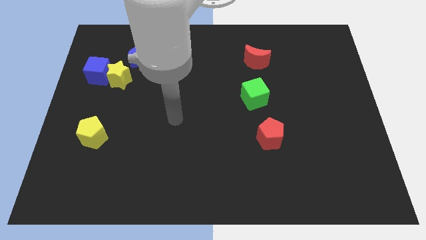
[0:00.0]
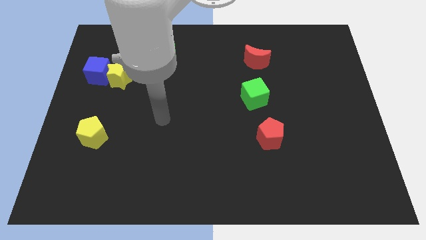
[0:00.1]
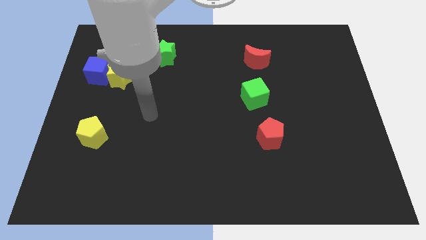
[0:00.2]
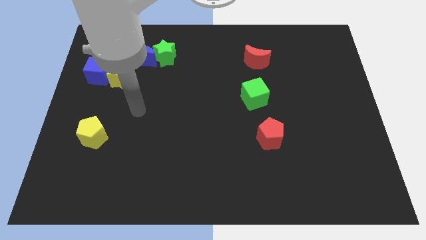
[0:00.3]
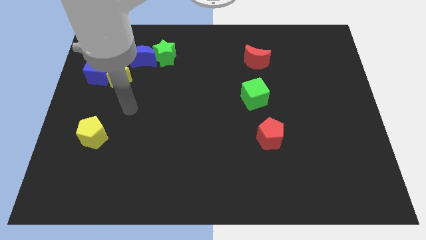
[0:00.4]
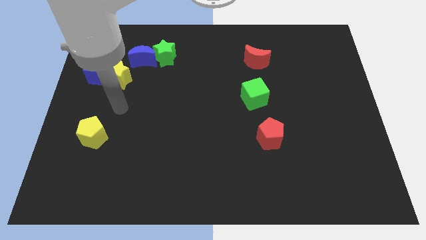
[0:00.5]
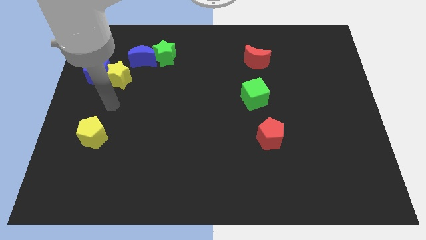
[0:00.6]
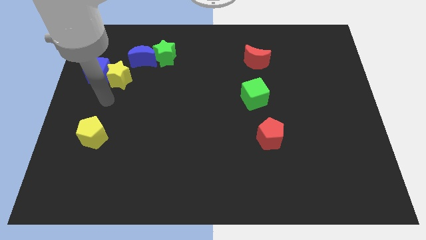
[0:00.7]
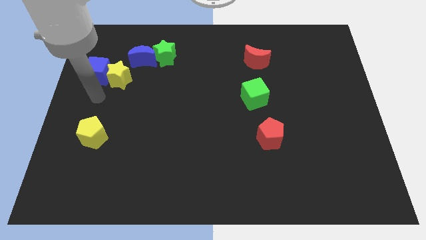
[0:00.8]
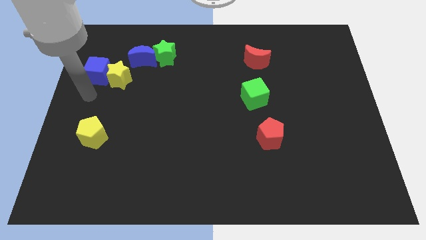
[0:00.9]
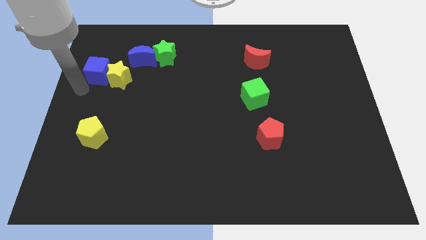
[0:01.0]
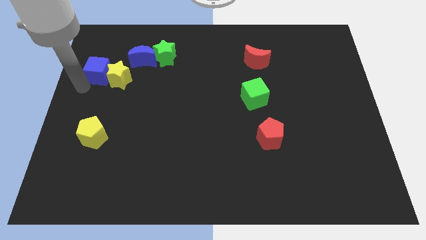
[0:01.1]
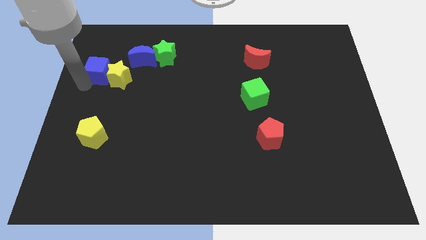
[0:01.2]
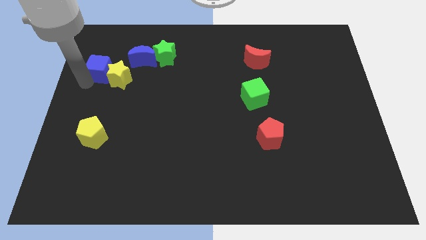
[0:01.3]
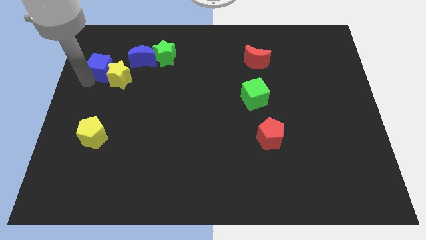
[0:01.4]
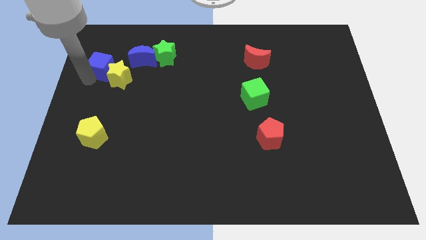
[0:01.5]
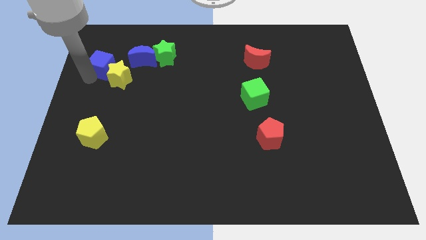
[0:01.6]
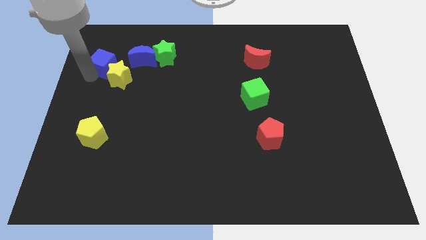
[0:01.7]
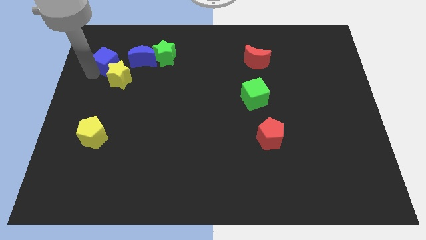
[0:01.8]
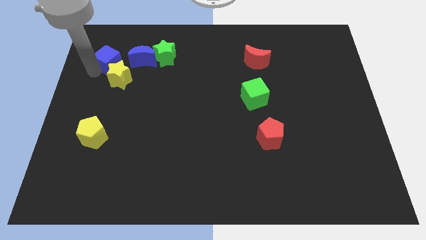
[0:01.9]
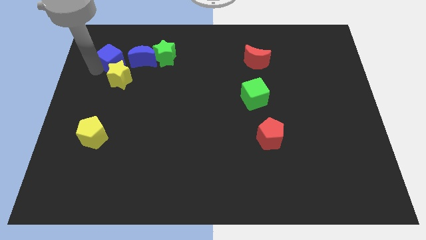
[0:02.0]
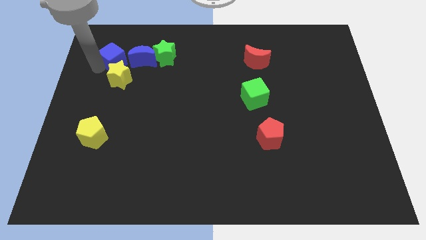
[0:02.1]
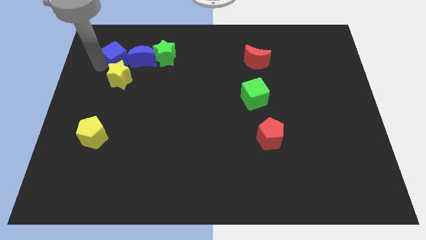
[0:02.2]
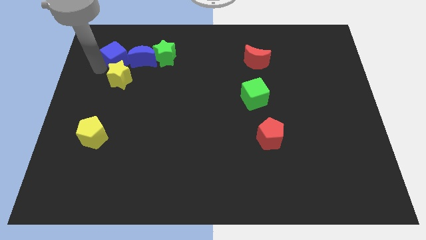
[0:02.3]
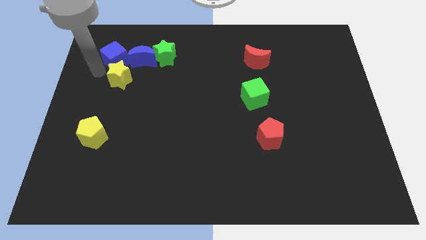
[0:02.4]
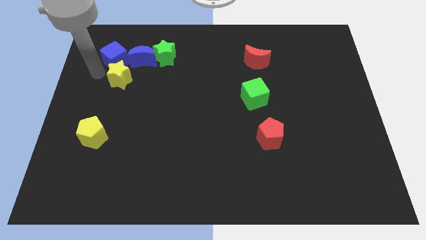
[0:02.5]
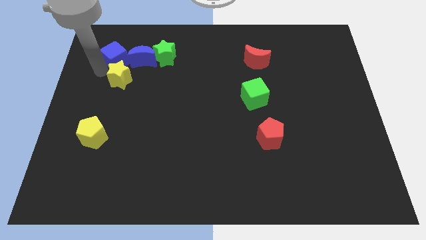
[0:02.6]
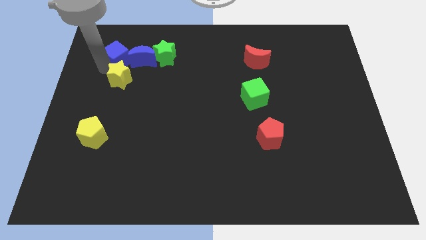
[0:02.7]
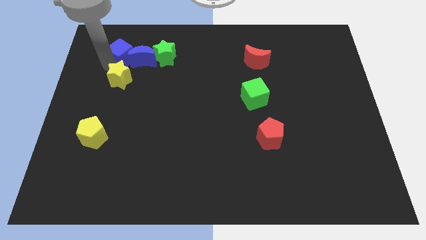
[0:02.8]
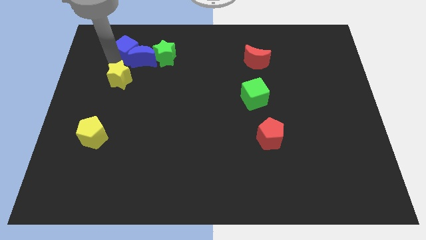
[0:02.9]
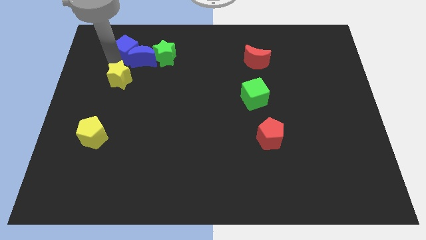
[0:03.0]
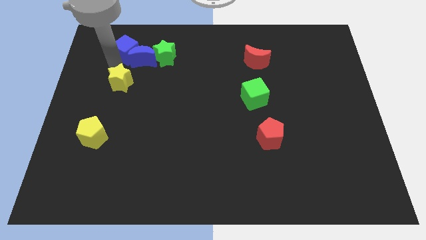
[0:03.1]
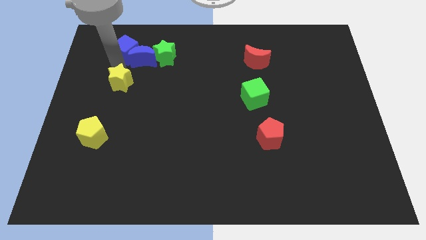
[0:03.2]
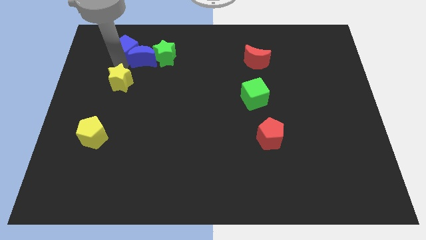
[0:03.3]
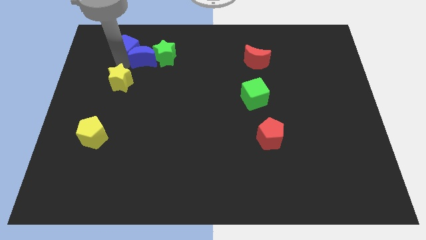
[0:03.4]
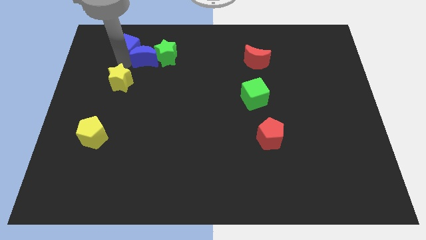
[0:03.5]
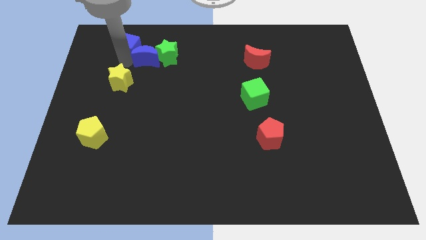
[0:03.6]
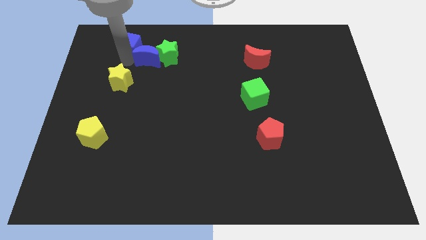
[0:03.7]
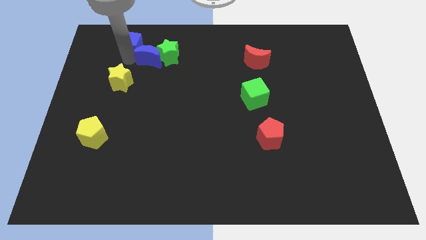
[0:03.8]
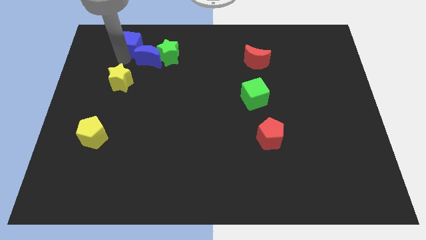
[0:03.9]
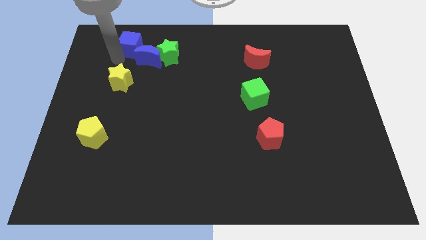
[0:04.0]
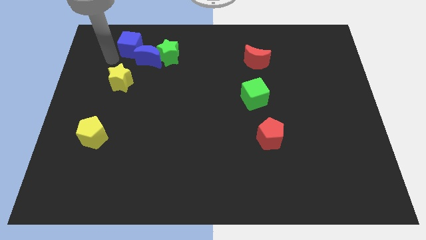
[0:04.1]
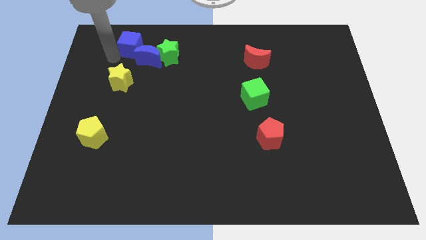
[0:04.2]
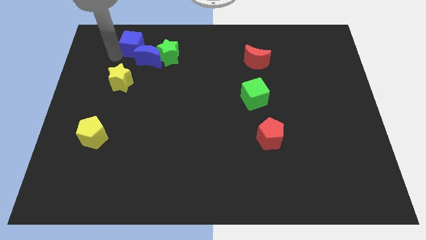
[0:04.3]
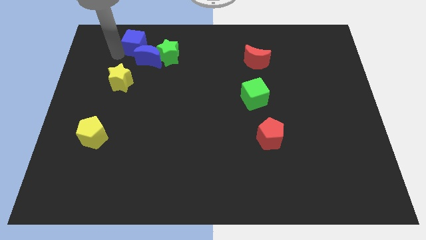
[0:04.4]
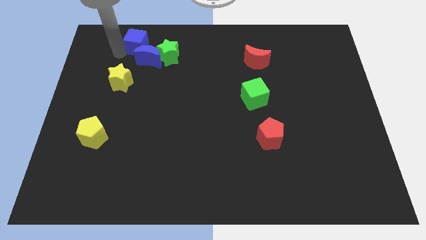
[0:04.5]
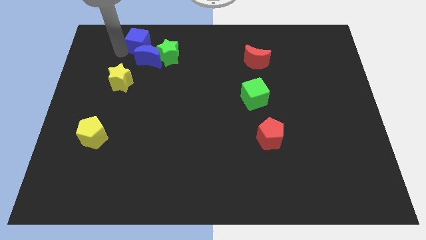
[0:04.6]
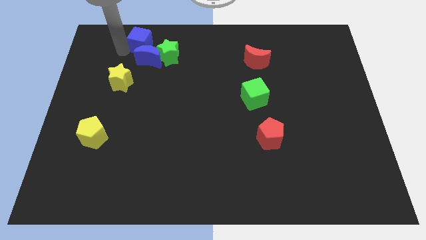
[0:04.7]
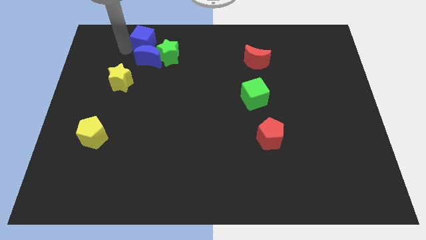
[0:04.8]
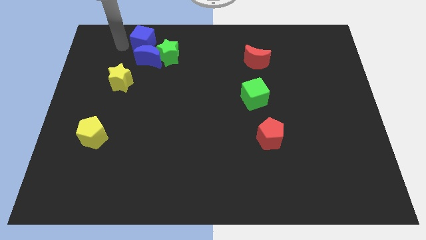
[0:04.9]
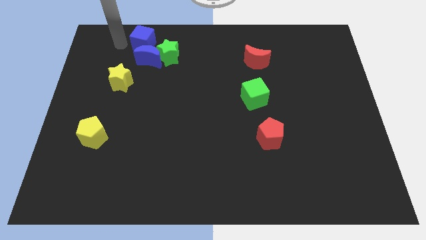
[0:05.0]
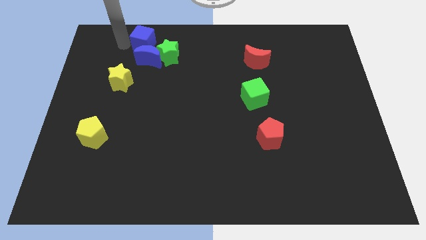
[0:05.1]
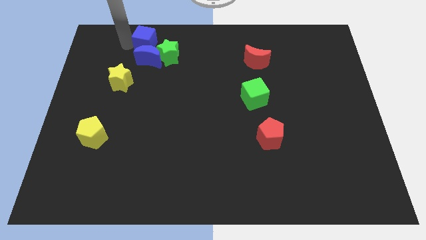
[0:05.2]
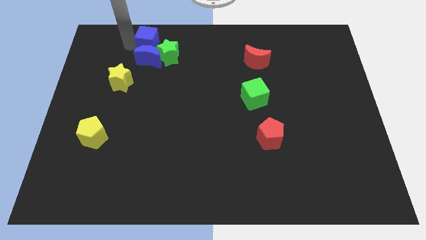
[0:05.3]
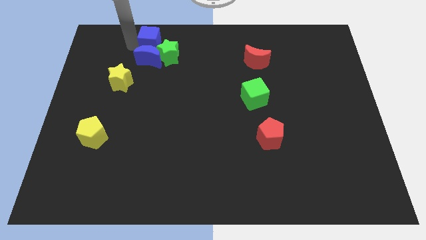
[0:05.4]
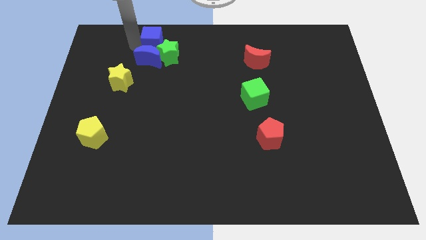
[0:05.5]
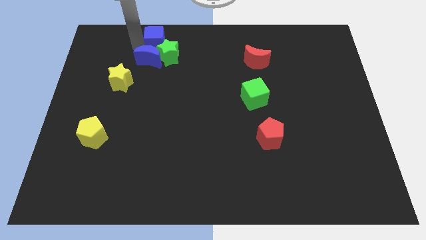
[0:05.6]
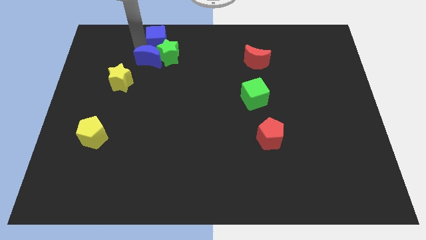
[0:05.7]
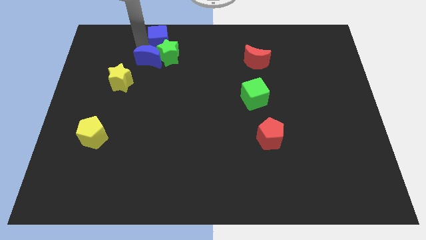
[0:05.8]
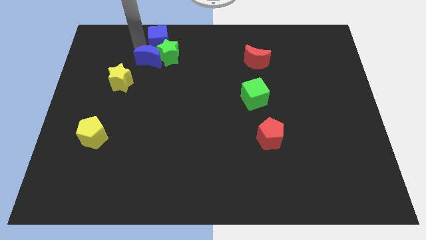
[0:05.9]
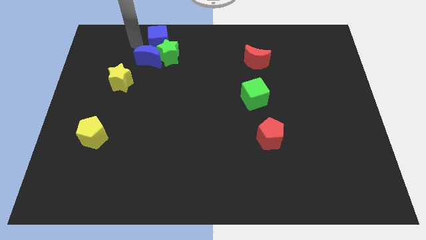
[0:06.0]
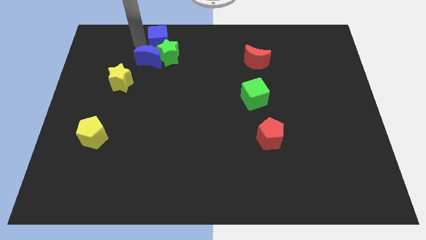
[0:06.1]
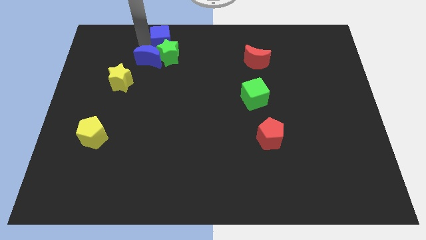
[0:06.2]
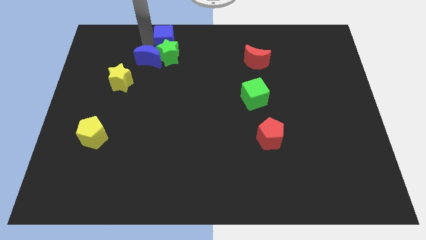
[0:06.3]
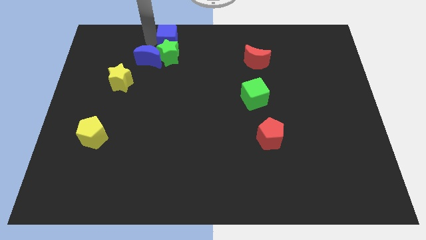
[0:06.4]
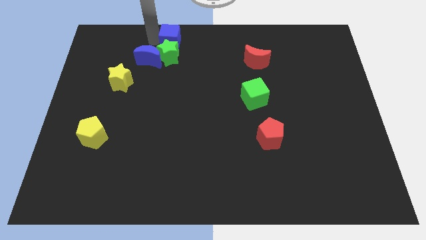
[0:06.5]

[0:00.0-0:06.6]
slide the blue cube to the top
